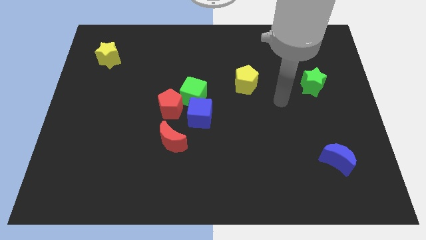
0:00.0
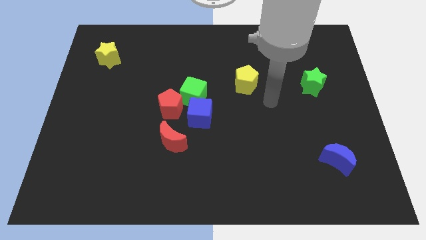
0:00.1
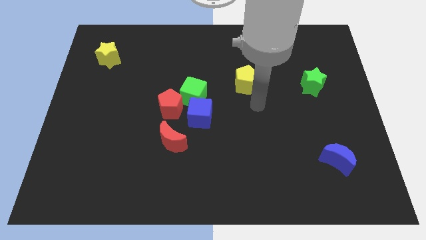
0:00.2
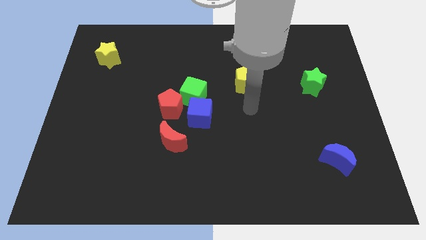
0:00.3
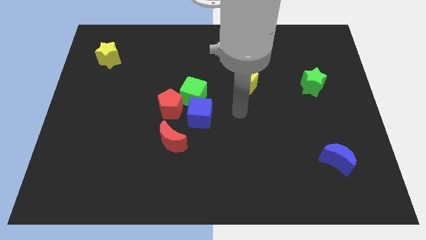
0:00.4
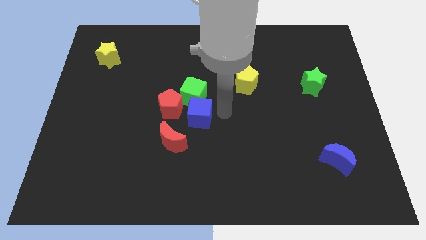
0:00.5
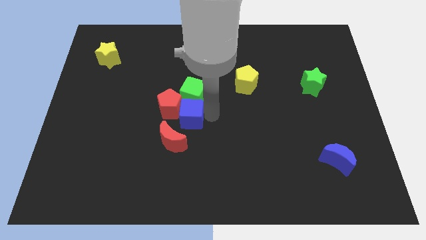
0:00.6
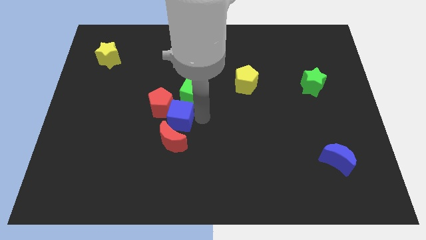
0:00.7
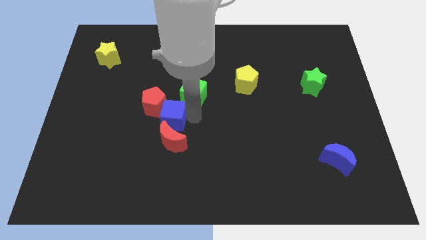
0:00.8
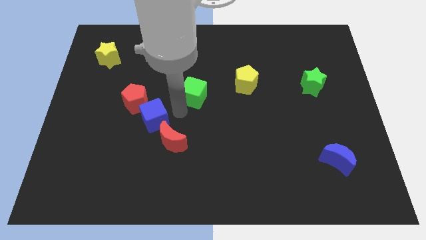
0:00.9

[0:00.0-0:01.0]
move the green cube away from the blue cube and red pentagon

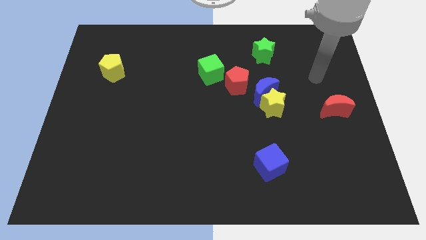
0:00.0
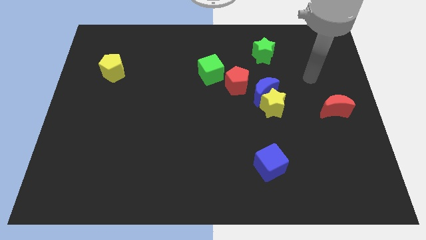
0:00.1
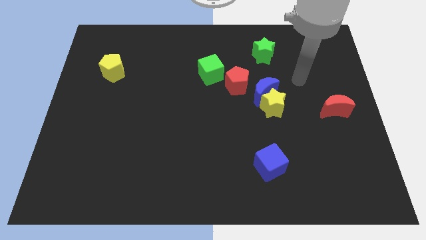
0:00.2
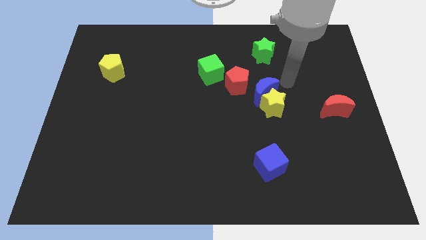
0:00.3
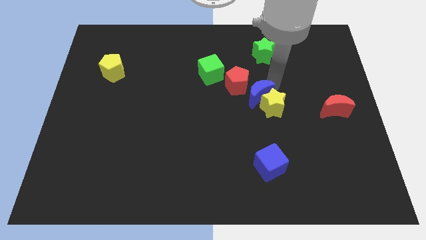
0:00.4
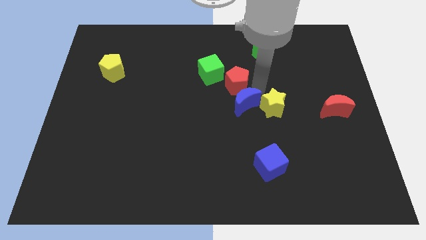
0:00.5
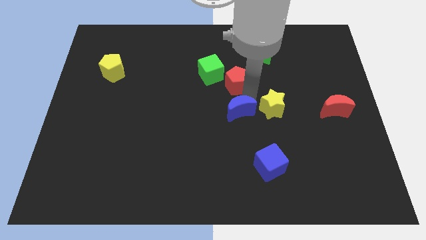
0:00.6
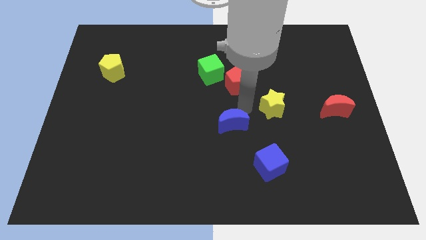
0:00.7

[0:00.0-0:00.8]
pull the yellow star apart from the blue moon

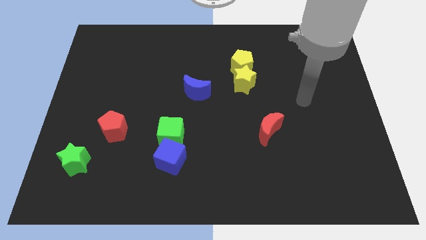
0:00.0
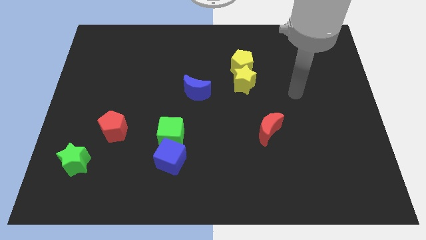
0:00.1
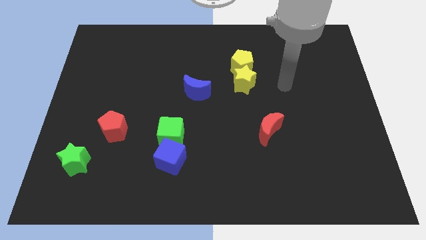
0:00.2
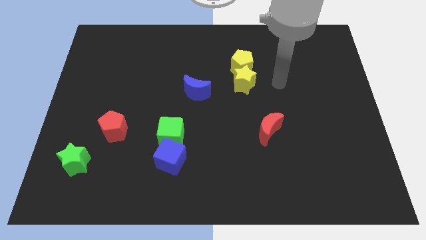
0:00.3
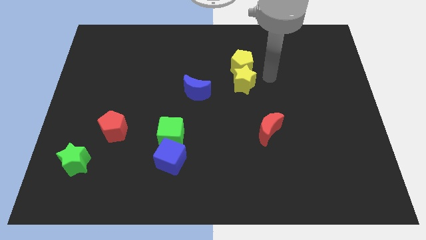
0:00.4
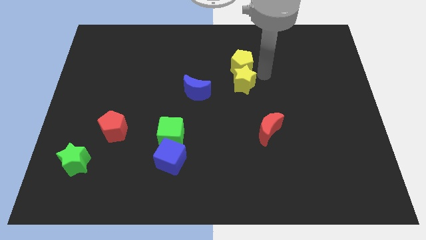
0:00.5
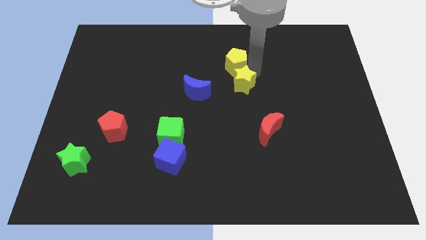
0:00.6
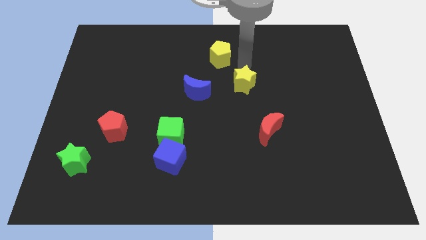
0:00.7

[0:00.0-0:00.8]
pull the yellow star apart from the yellow pentagon

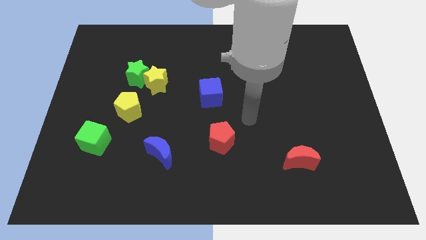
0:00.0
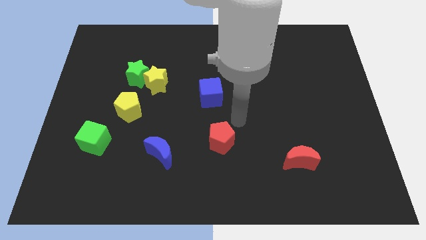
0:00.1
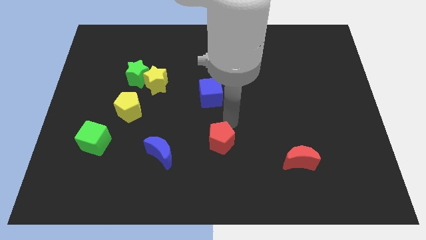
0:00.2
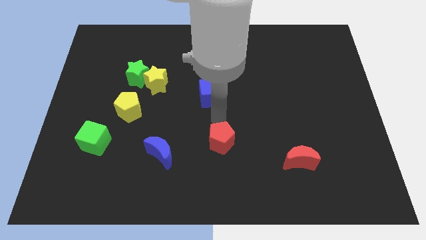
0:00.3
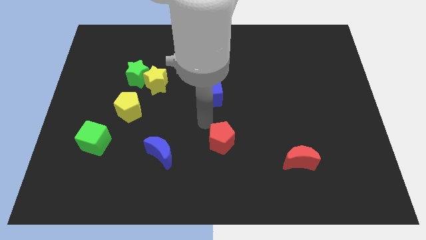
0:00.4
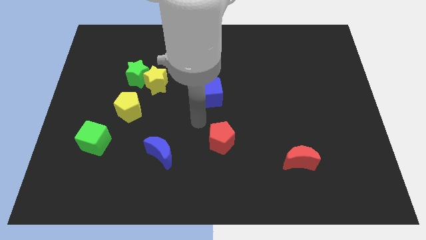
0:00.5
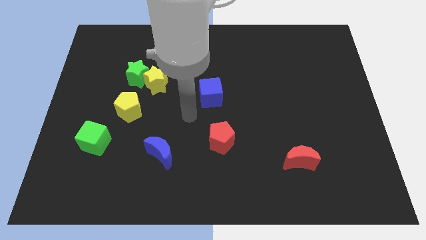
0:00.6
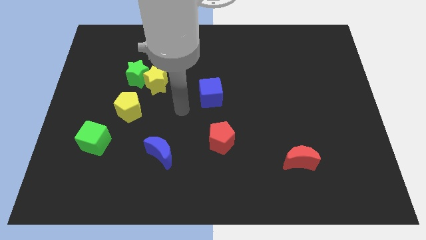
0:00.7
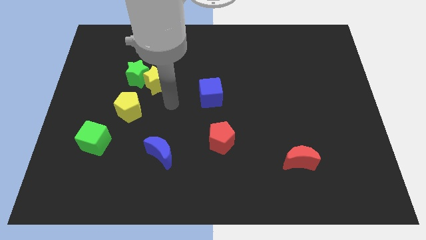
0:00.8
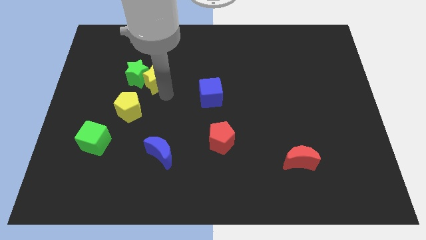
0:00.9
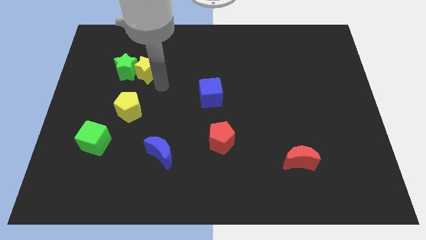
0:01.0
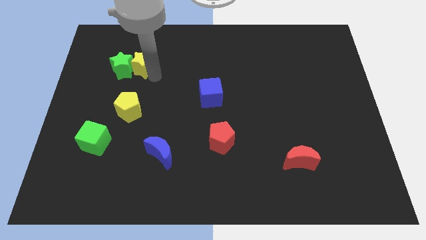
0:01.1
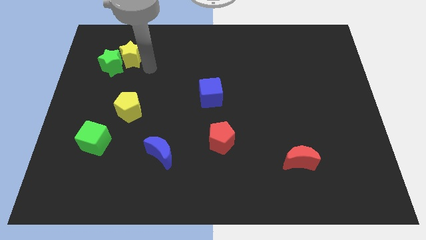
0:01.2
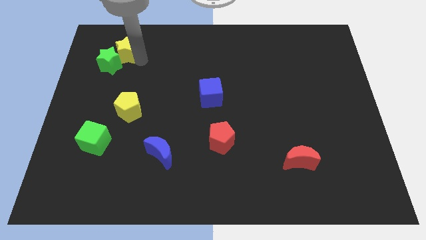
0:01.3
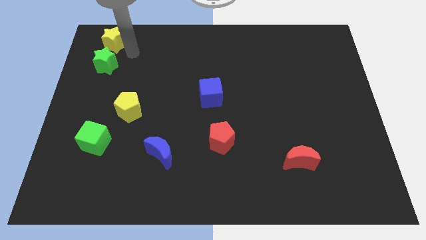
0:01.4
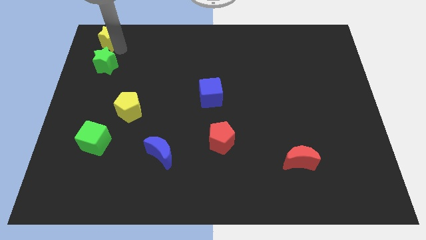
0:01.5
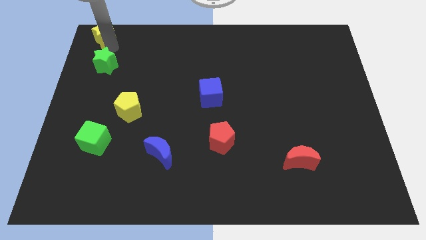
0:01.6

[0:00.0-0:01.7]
move the green star away from the yellow star

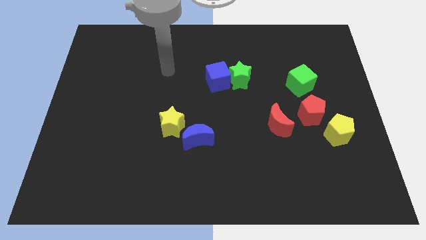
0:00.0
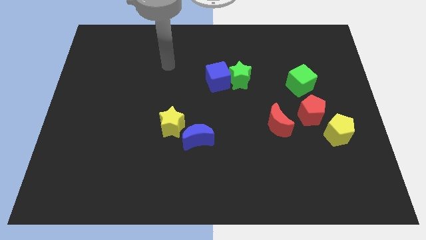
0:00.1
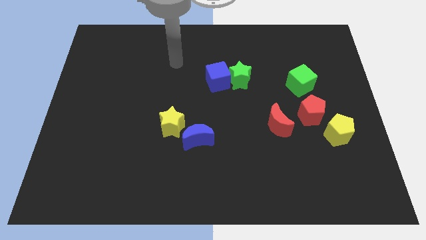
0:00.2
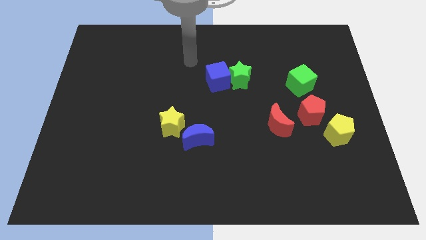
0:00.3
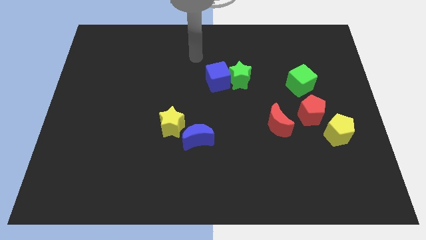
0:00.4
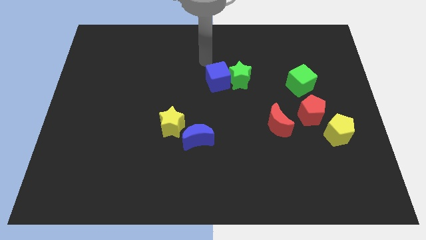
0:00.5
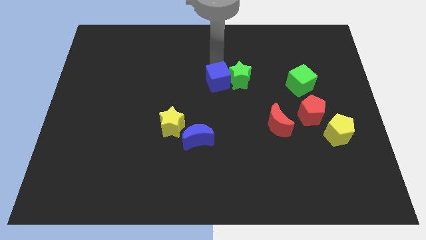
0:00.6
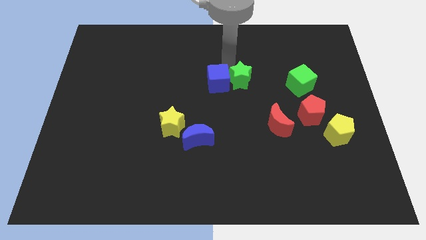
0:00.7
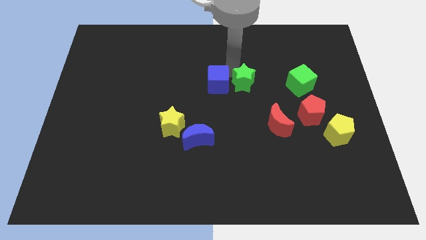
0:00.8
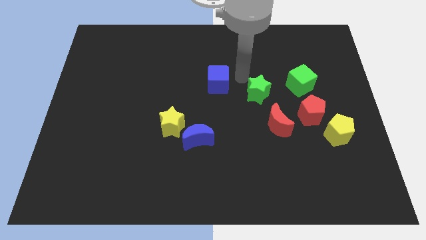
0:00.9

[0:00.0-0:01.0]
pull the blue cube apart from the green star

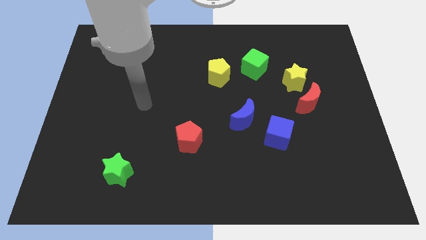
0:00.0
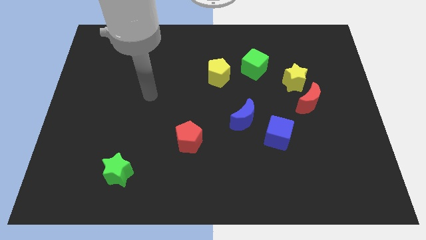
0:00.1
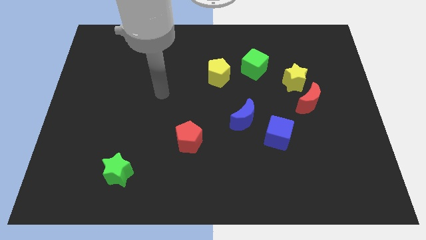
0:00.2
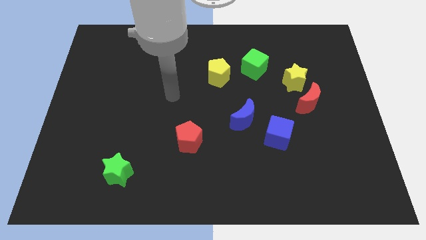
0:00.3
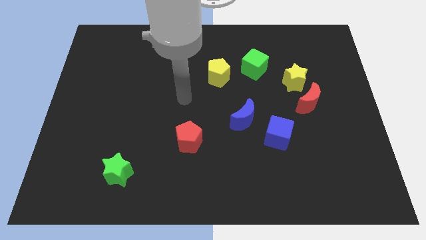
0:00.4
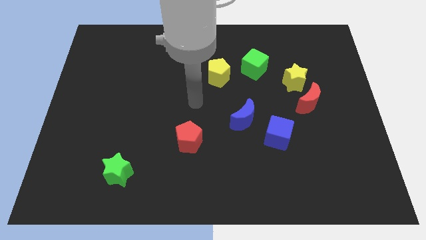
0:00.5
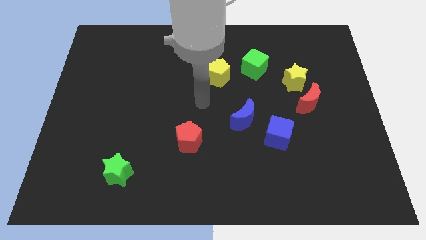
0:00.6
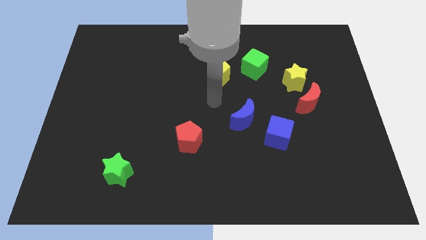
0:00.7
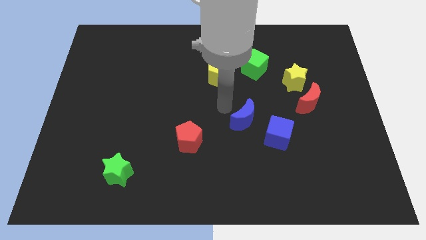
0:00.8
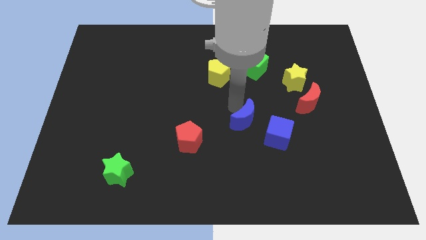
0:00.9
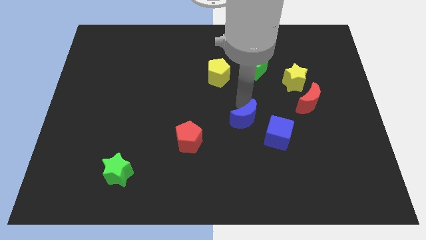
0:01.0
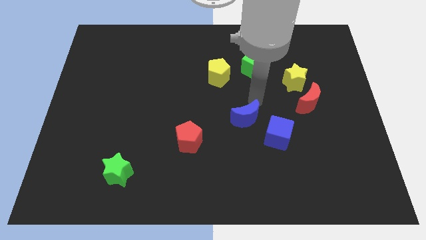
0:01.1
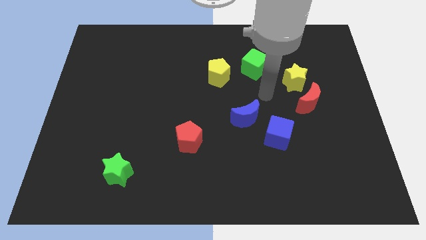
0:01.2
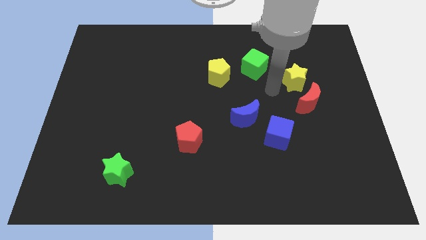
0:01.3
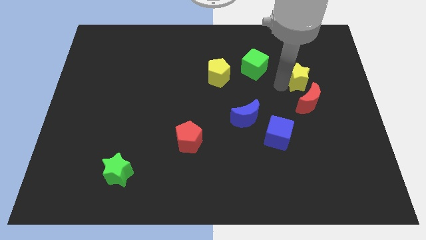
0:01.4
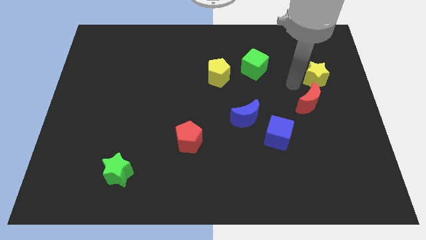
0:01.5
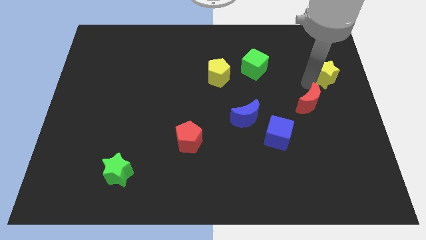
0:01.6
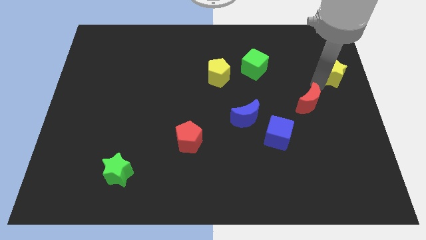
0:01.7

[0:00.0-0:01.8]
separate the red moon from the yellow star

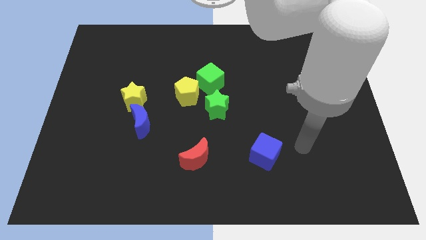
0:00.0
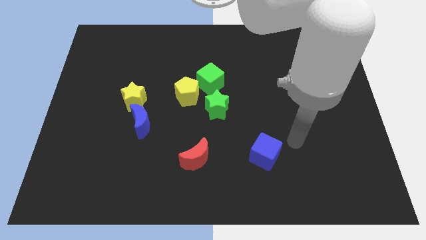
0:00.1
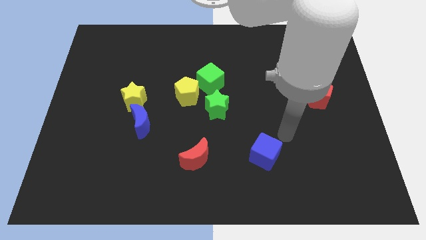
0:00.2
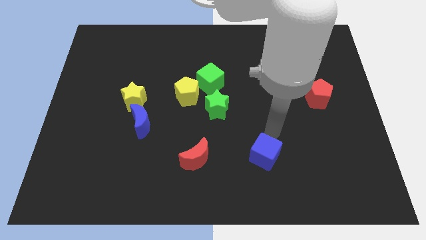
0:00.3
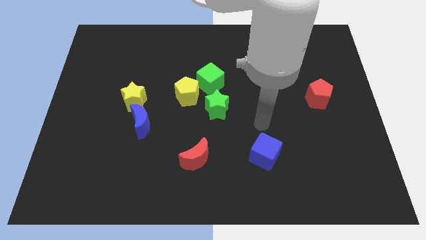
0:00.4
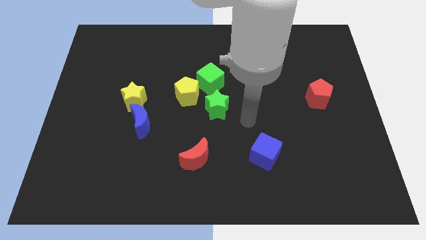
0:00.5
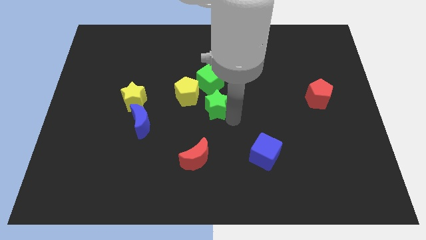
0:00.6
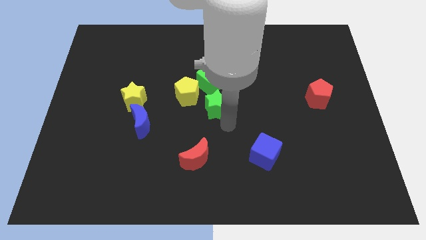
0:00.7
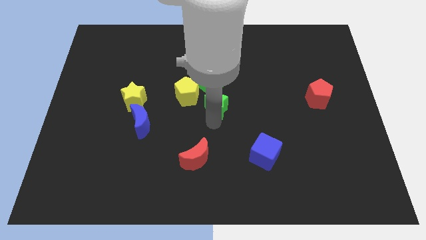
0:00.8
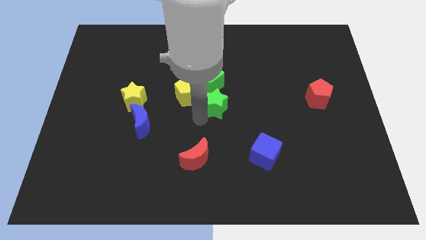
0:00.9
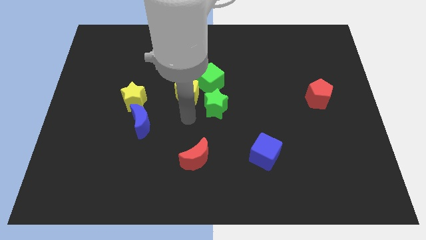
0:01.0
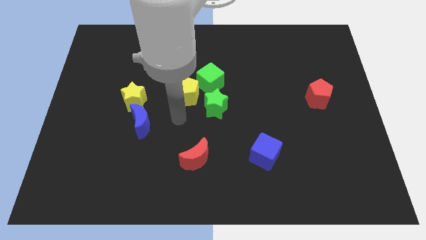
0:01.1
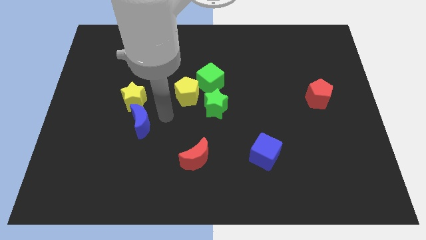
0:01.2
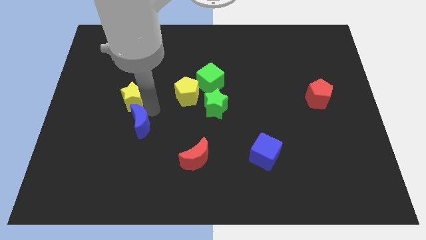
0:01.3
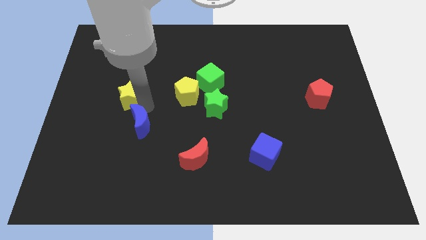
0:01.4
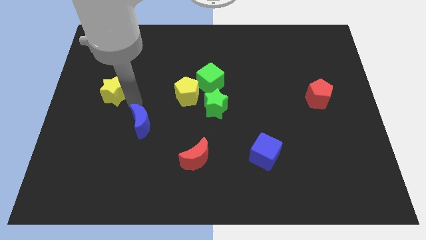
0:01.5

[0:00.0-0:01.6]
separate the blue moon from the yellow star

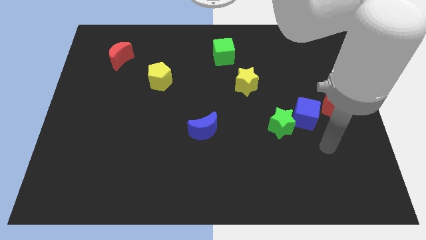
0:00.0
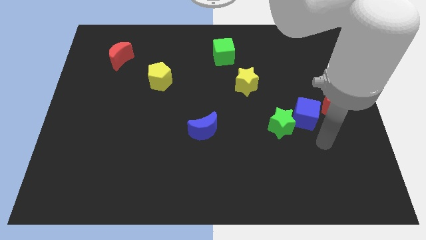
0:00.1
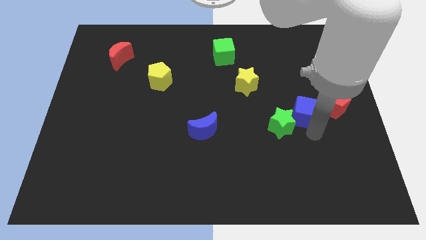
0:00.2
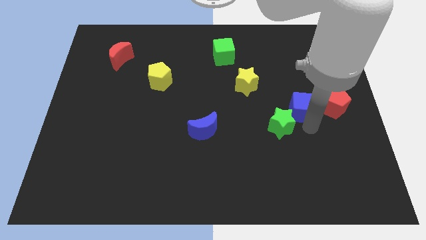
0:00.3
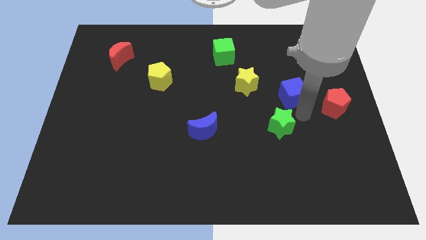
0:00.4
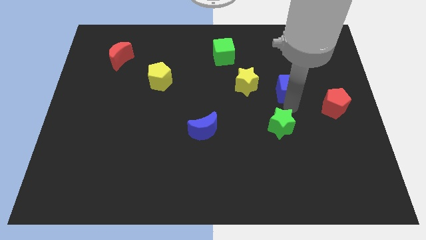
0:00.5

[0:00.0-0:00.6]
pull the green star apart from the blue cube

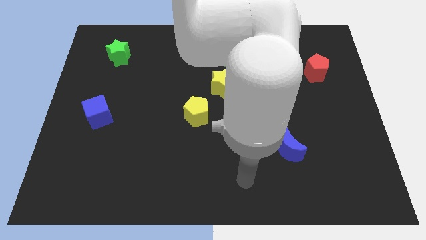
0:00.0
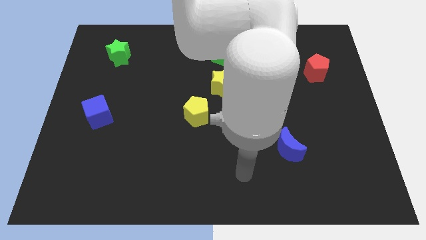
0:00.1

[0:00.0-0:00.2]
separate the yellow star from the yellow pentagon
